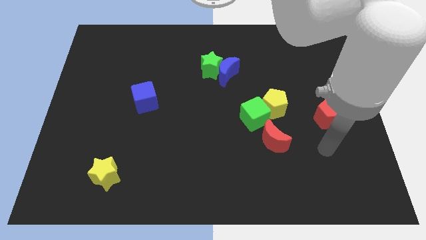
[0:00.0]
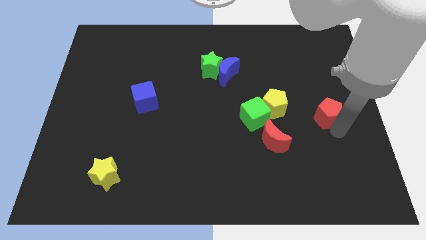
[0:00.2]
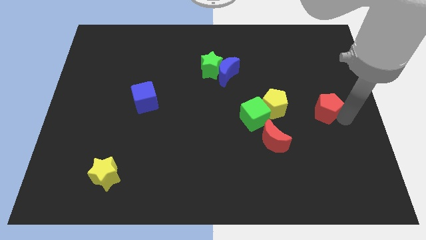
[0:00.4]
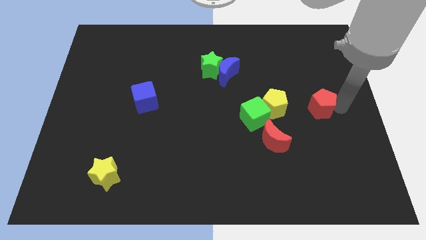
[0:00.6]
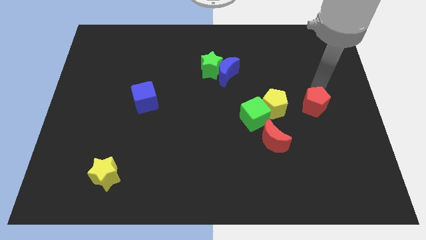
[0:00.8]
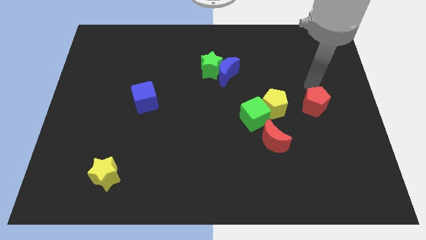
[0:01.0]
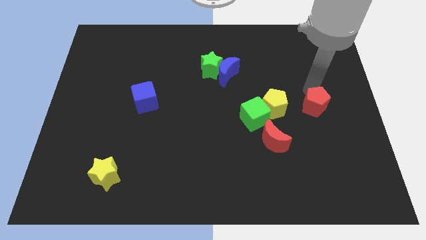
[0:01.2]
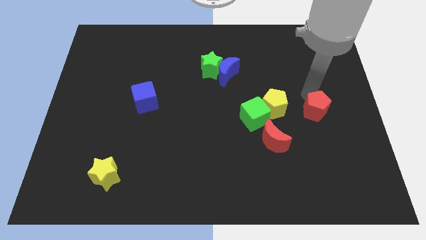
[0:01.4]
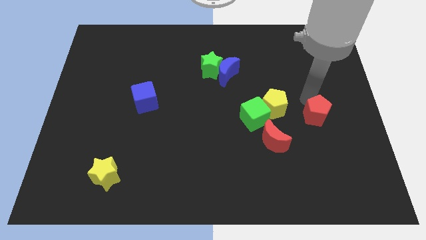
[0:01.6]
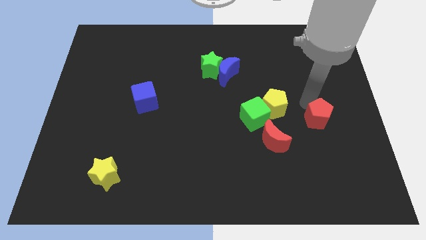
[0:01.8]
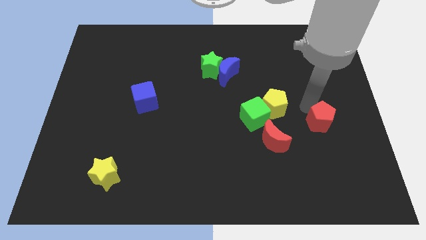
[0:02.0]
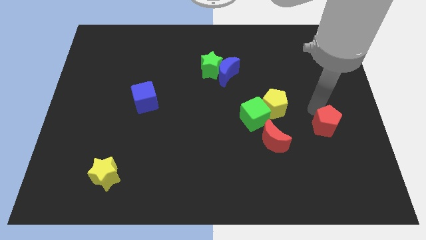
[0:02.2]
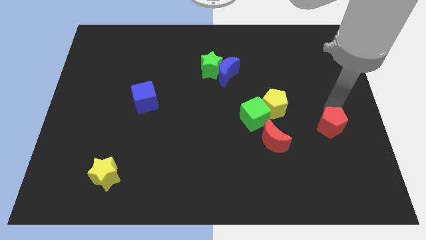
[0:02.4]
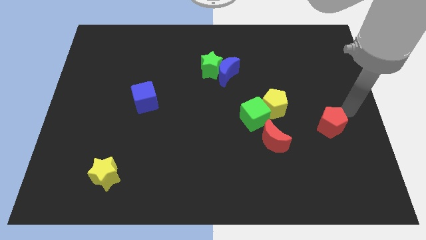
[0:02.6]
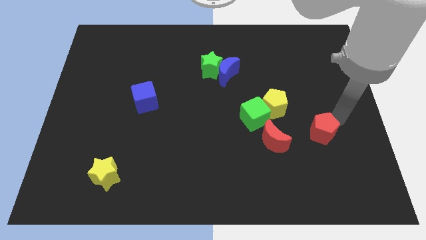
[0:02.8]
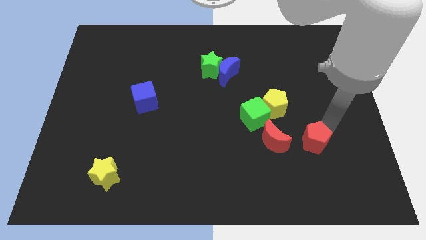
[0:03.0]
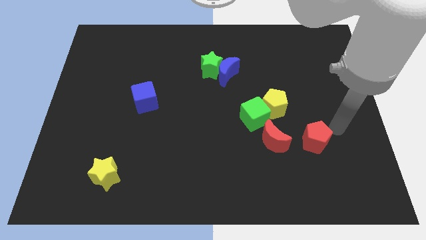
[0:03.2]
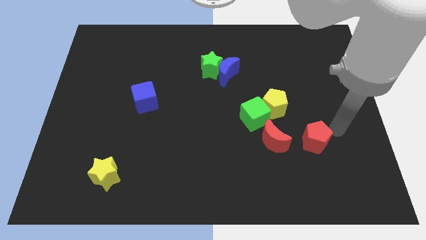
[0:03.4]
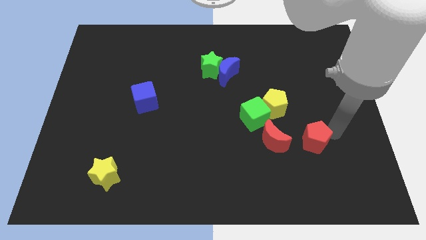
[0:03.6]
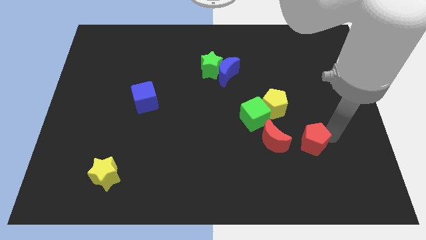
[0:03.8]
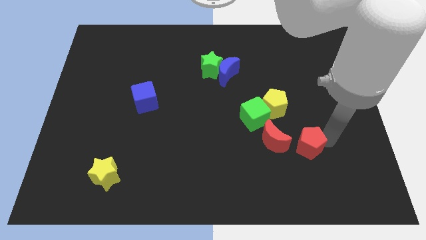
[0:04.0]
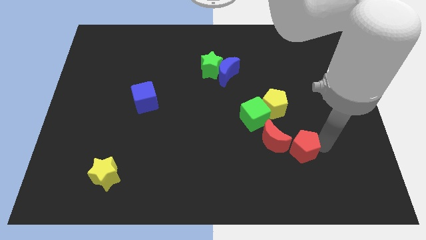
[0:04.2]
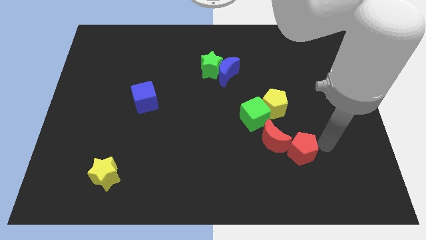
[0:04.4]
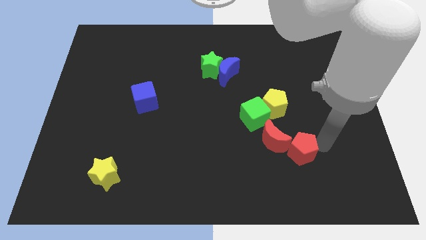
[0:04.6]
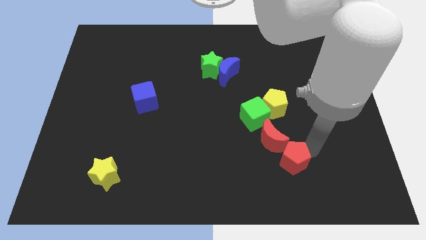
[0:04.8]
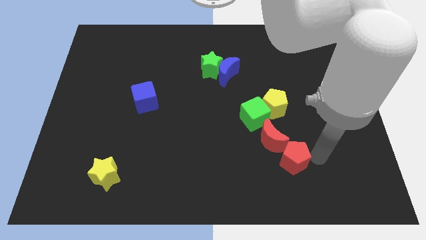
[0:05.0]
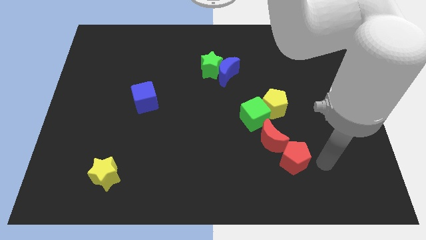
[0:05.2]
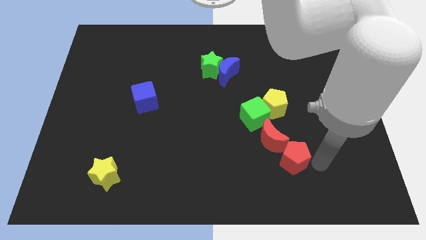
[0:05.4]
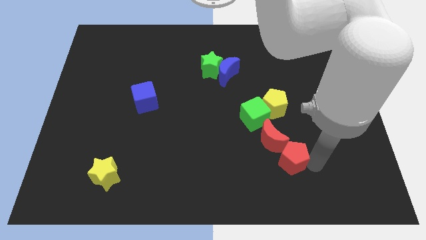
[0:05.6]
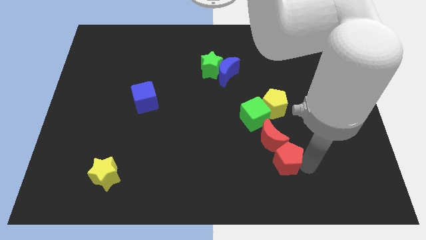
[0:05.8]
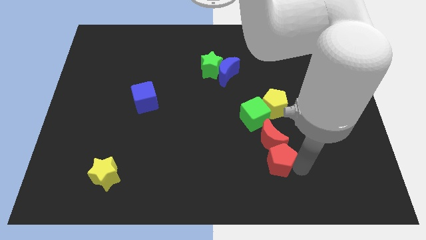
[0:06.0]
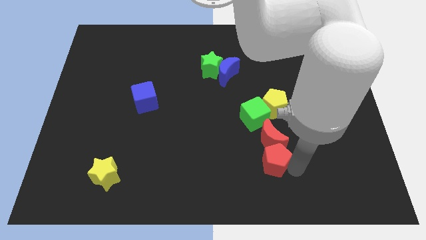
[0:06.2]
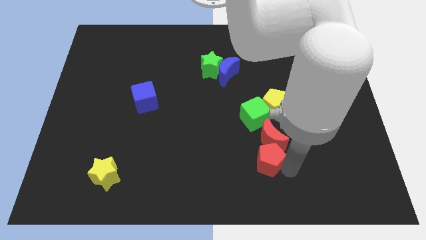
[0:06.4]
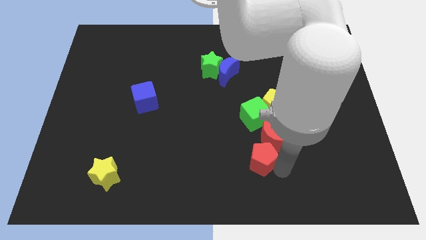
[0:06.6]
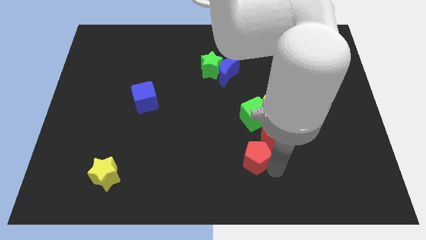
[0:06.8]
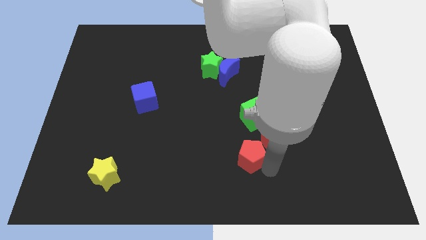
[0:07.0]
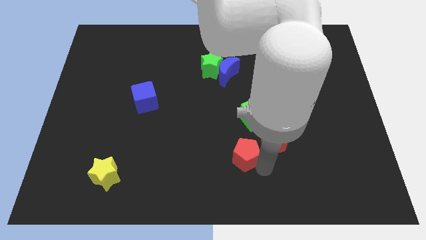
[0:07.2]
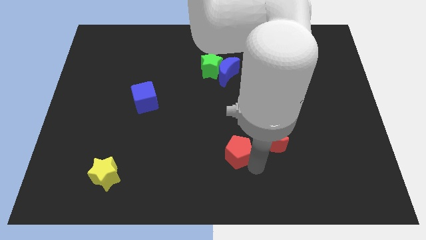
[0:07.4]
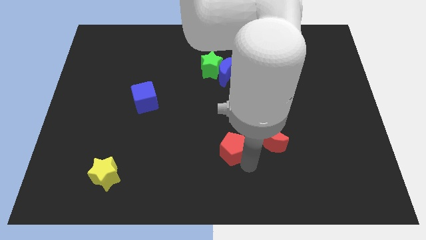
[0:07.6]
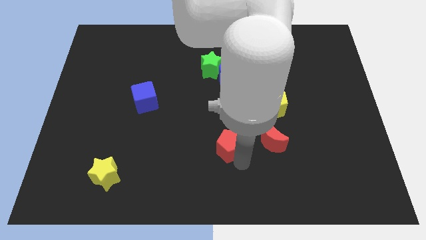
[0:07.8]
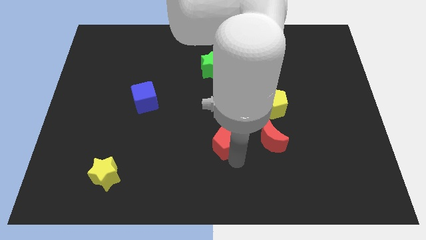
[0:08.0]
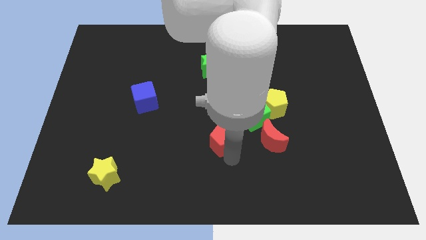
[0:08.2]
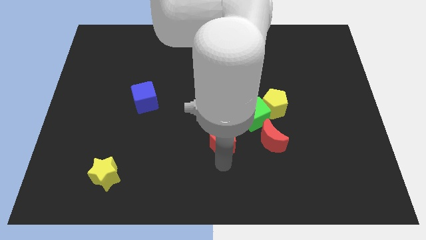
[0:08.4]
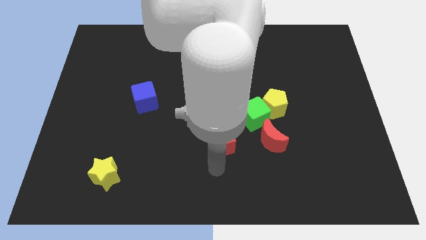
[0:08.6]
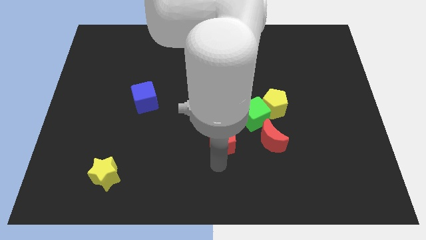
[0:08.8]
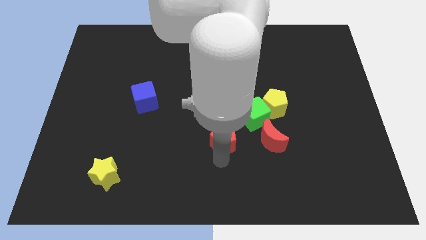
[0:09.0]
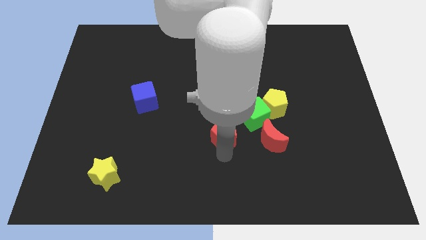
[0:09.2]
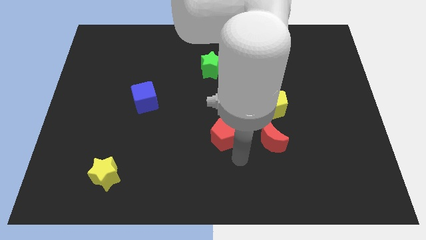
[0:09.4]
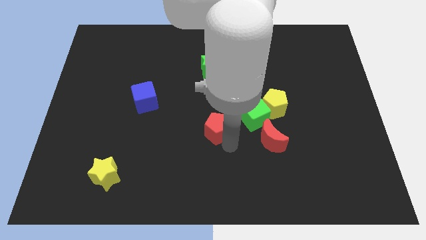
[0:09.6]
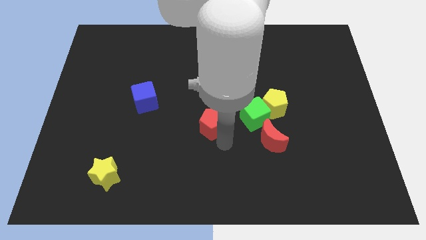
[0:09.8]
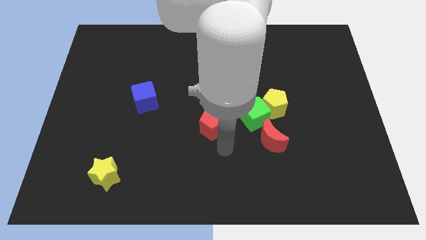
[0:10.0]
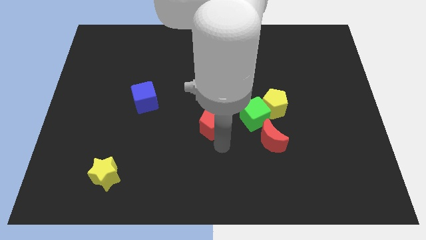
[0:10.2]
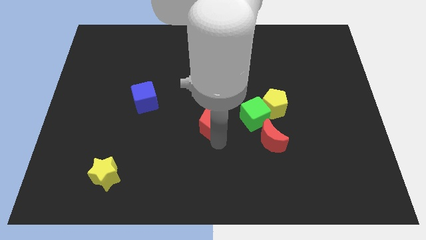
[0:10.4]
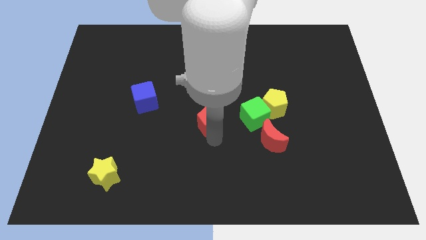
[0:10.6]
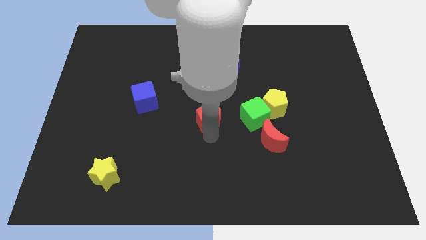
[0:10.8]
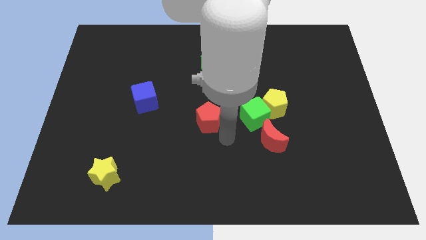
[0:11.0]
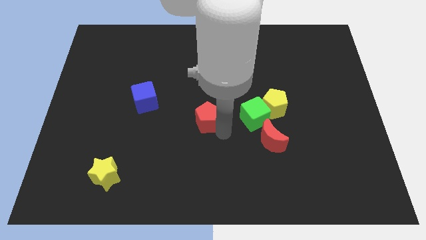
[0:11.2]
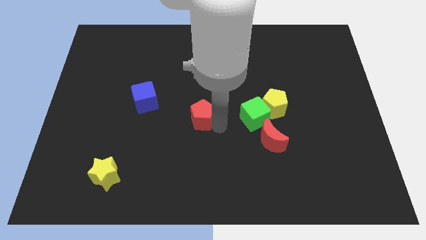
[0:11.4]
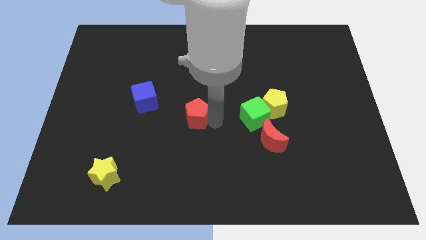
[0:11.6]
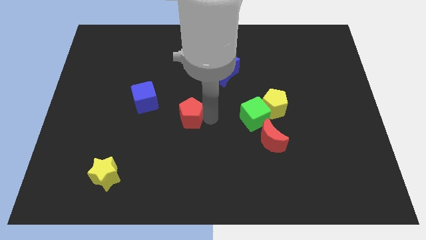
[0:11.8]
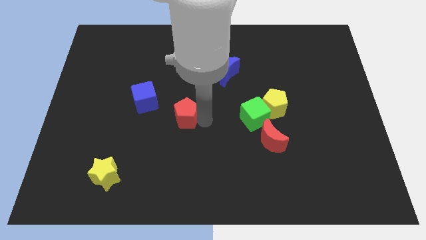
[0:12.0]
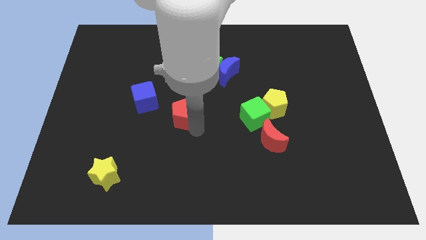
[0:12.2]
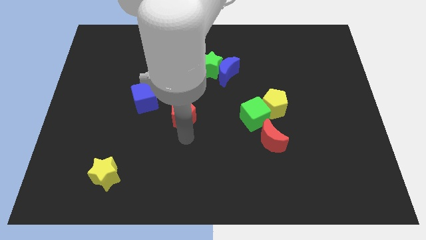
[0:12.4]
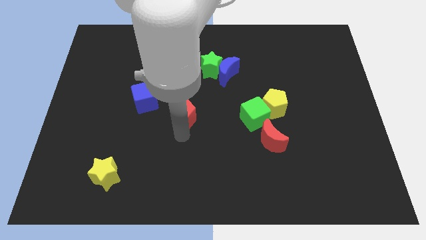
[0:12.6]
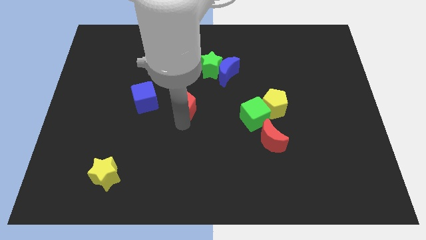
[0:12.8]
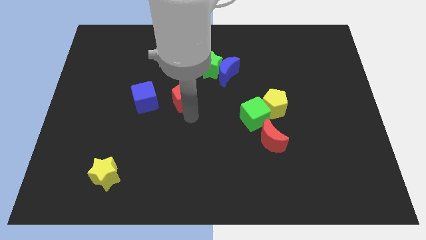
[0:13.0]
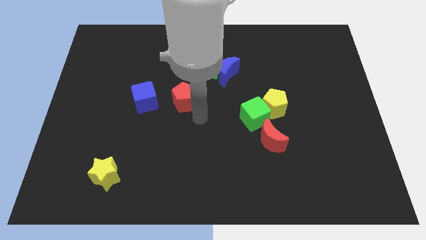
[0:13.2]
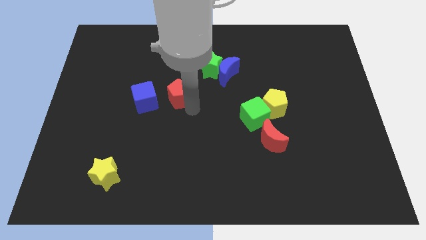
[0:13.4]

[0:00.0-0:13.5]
push the red pentagon diagonally up and to the right of the blue cube
